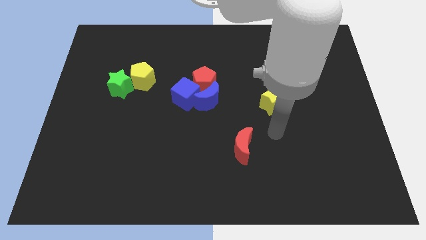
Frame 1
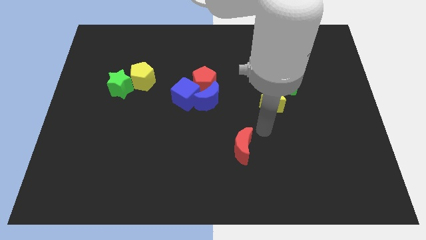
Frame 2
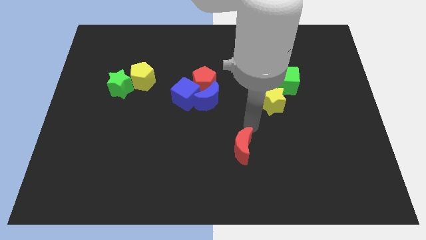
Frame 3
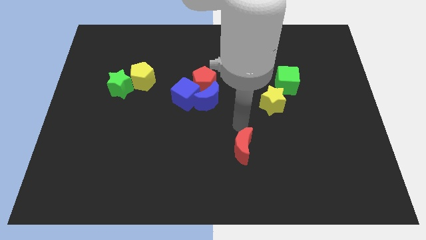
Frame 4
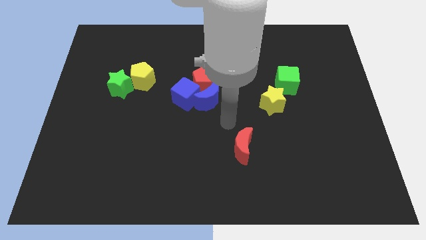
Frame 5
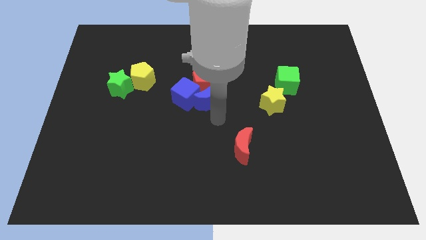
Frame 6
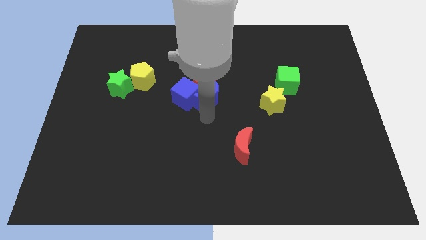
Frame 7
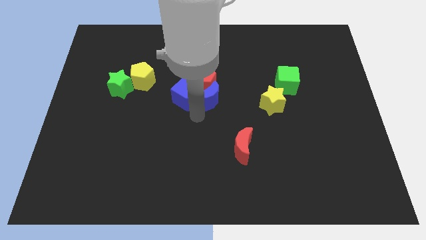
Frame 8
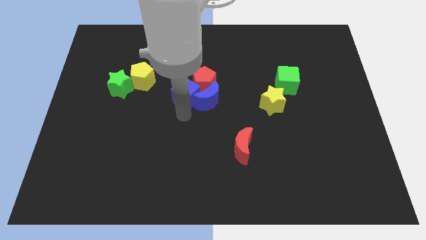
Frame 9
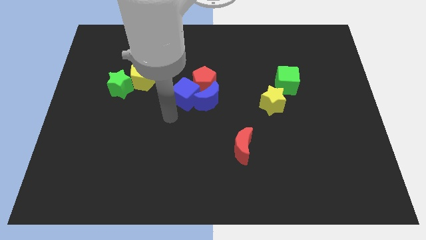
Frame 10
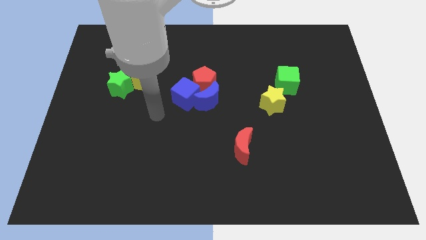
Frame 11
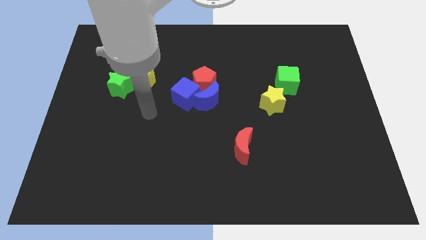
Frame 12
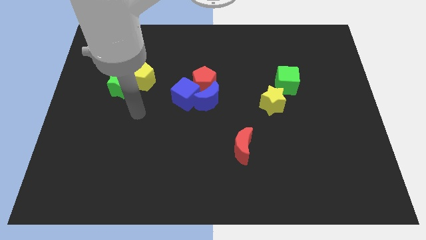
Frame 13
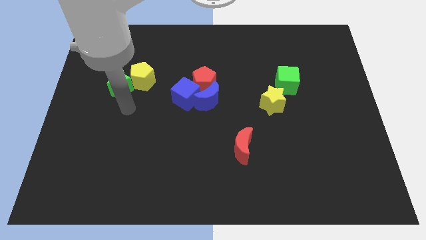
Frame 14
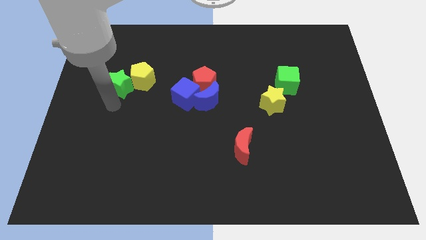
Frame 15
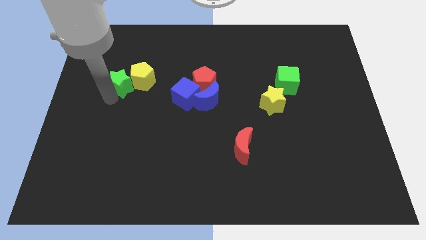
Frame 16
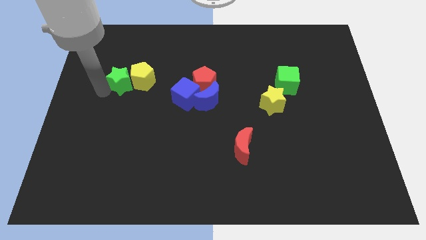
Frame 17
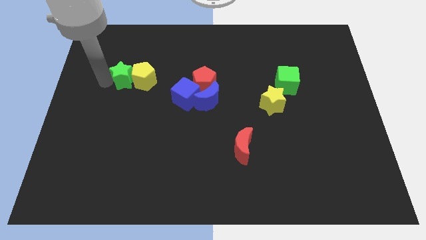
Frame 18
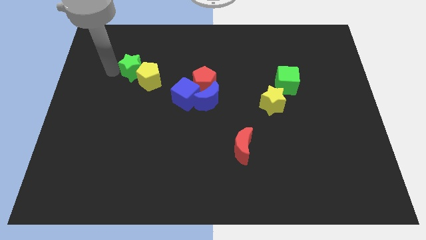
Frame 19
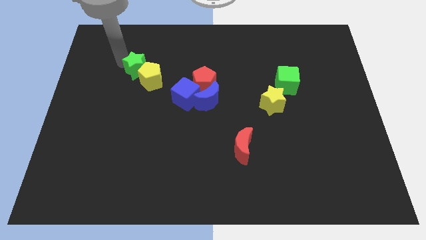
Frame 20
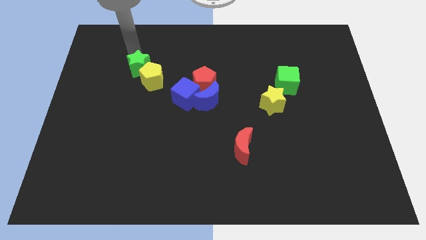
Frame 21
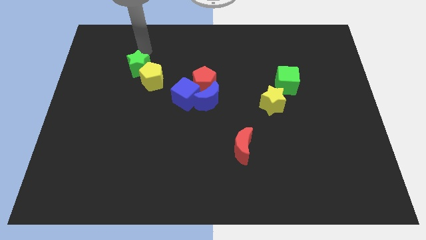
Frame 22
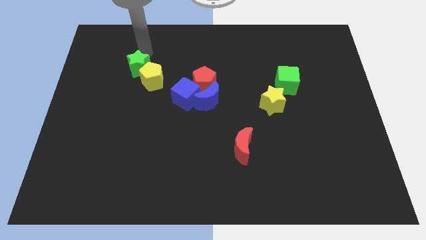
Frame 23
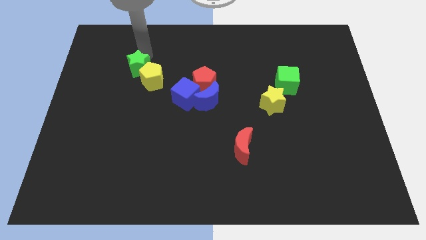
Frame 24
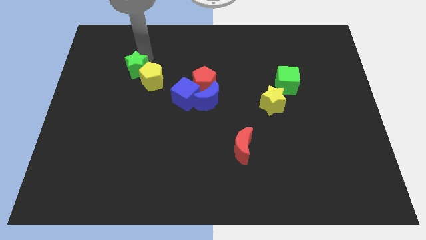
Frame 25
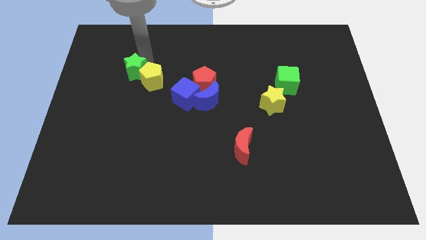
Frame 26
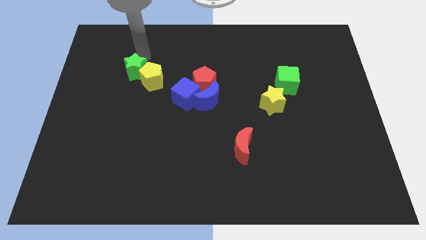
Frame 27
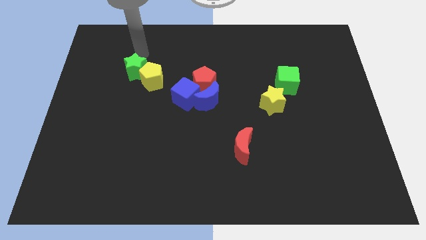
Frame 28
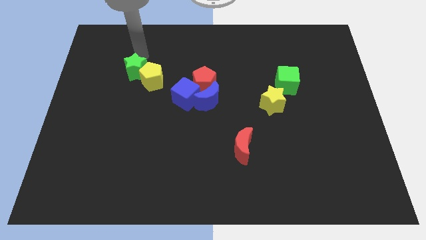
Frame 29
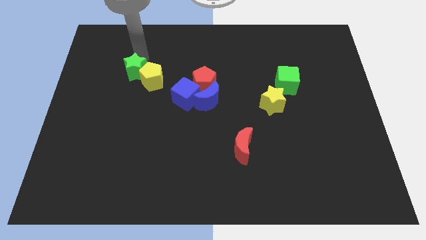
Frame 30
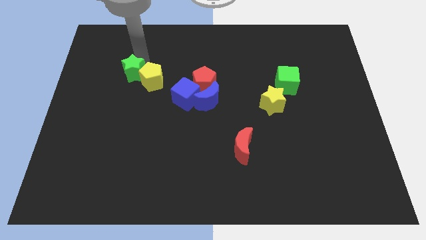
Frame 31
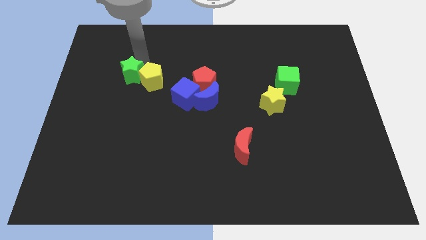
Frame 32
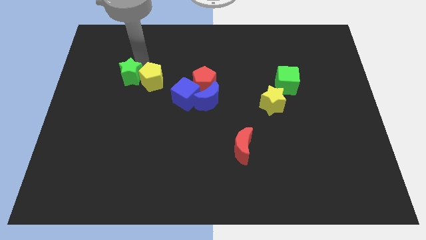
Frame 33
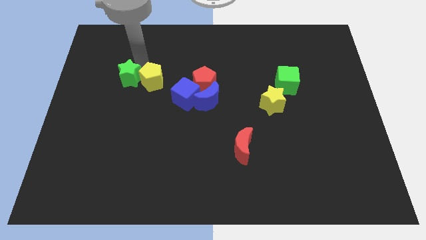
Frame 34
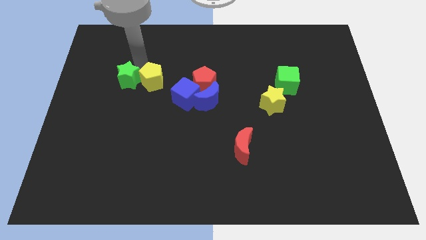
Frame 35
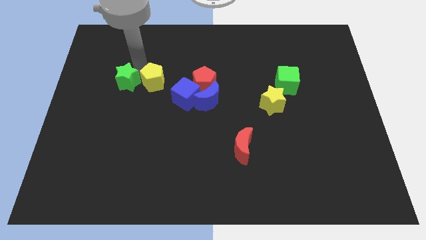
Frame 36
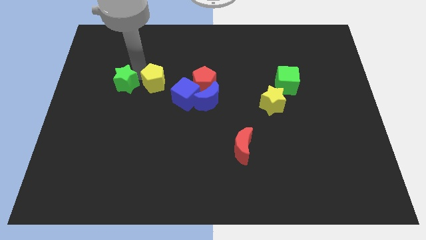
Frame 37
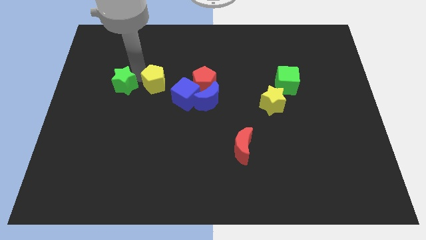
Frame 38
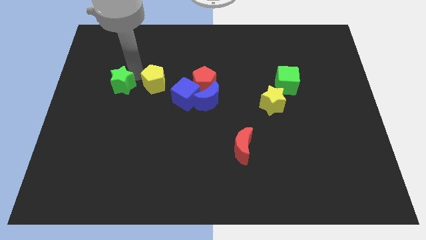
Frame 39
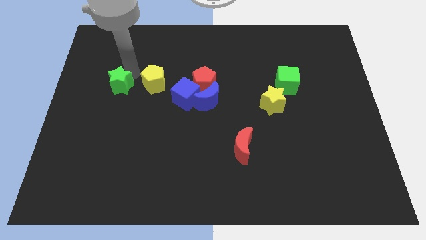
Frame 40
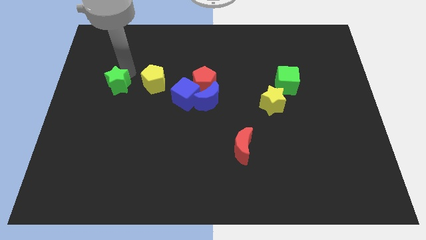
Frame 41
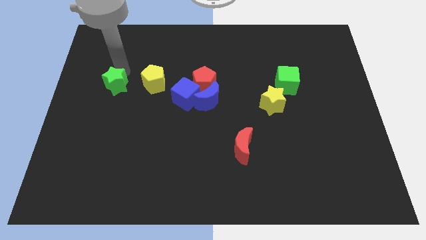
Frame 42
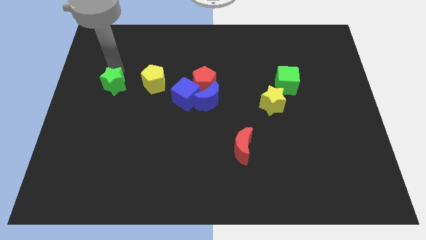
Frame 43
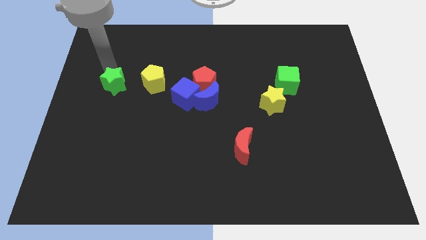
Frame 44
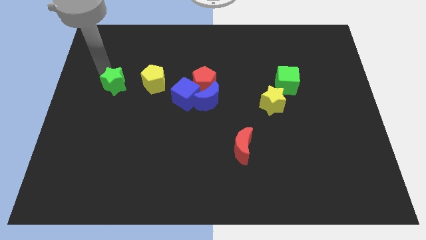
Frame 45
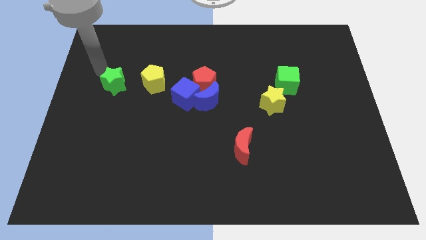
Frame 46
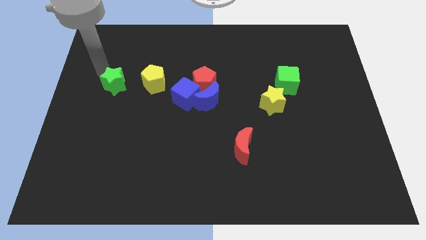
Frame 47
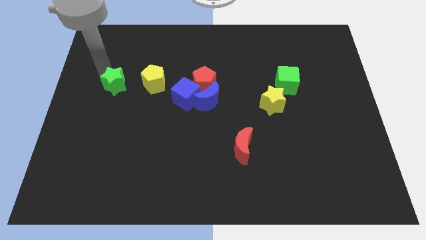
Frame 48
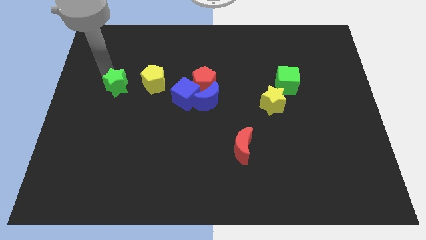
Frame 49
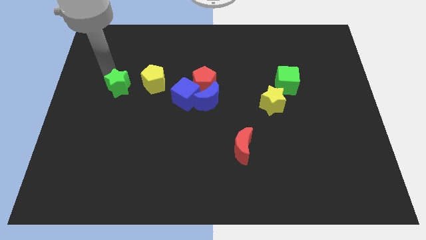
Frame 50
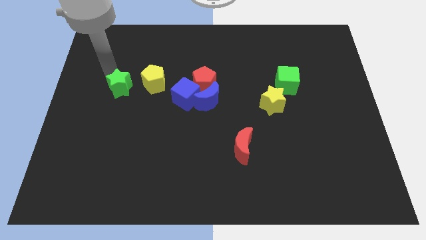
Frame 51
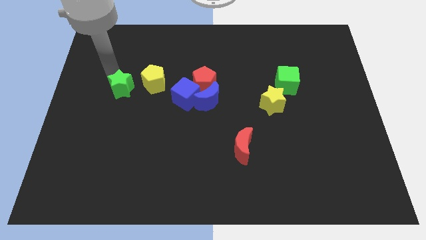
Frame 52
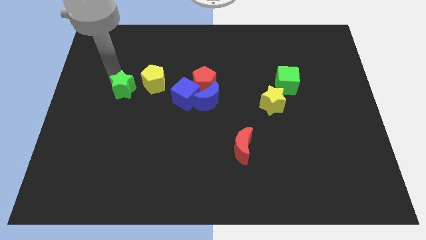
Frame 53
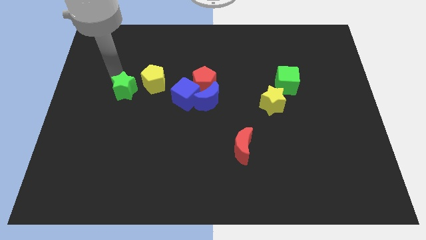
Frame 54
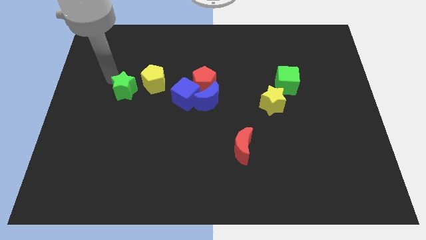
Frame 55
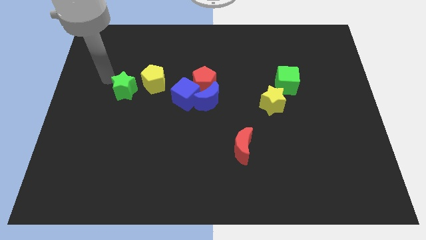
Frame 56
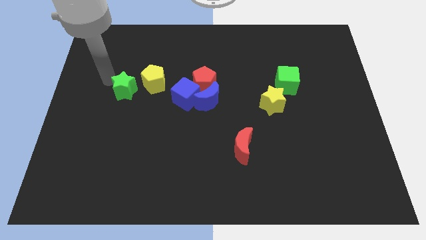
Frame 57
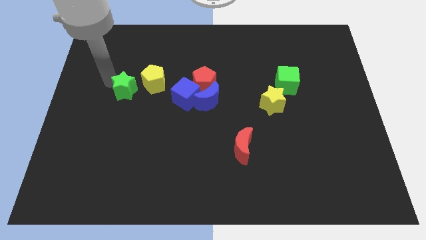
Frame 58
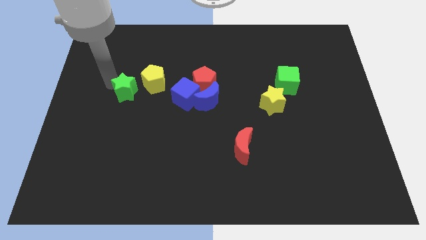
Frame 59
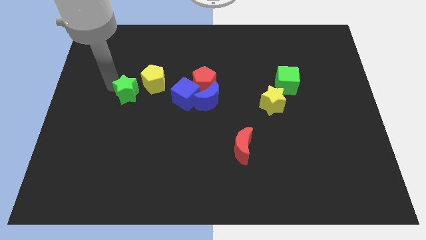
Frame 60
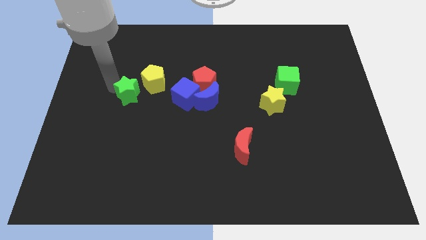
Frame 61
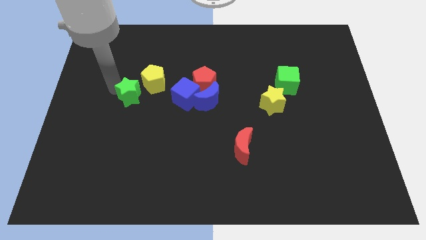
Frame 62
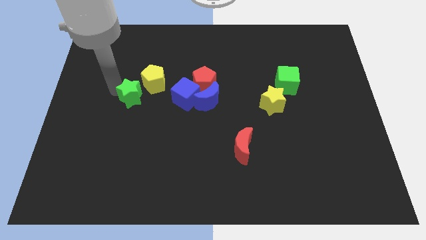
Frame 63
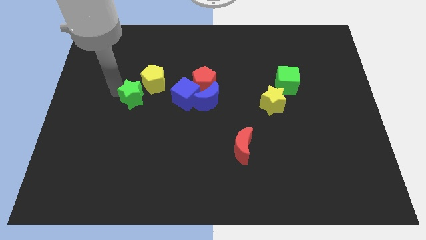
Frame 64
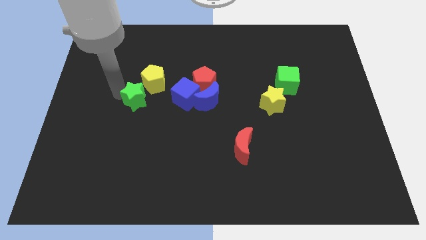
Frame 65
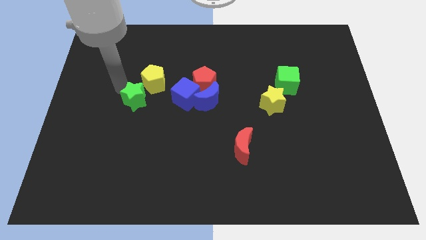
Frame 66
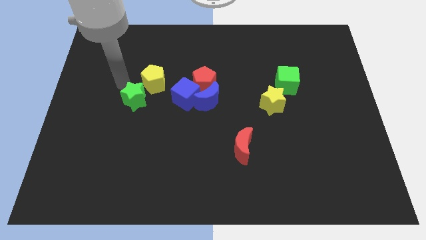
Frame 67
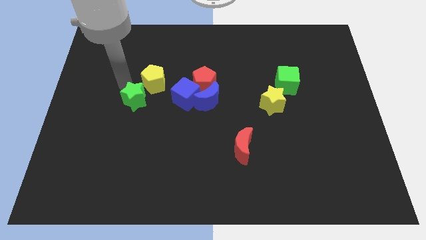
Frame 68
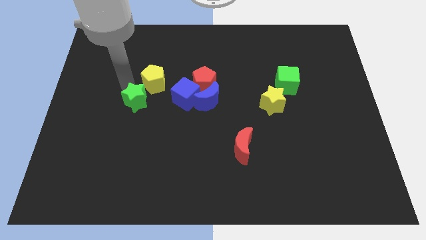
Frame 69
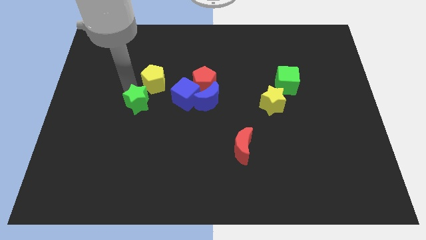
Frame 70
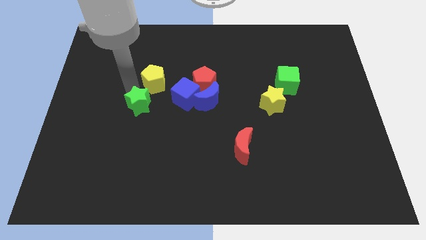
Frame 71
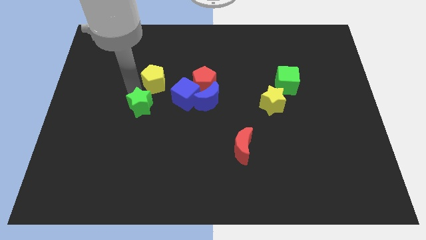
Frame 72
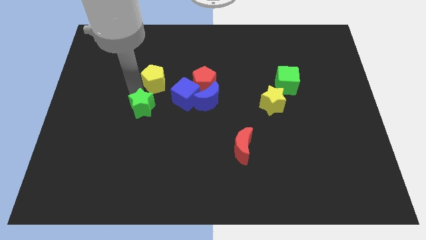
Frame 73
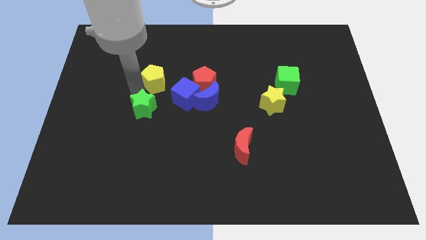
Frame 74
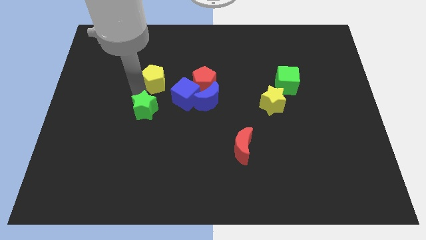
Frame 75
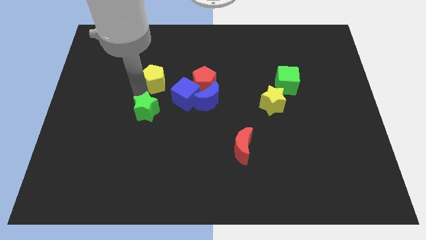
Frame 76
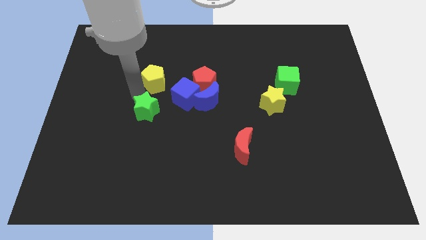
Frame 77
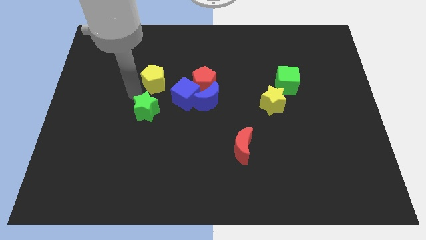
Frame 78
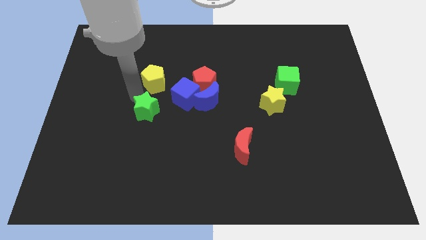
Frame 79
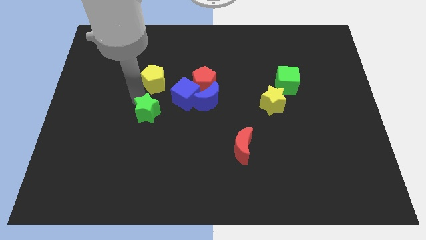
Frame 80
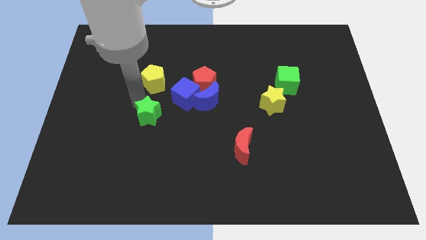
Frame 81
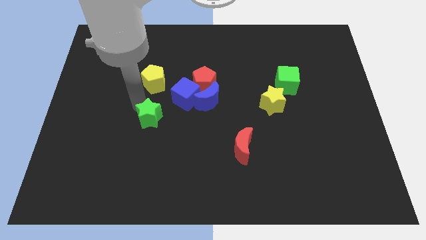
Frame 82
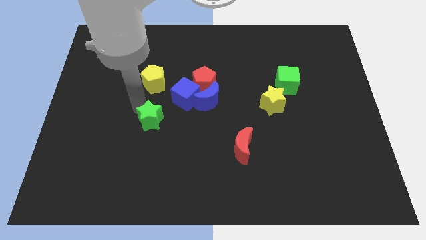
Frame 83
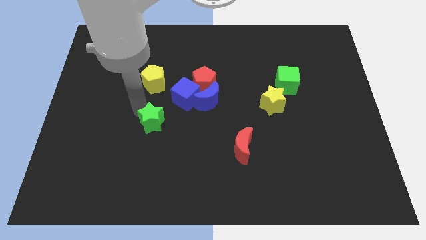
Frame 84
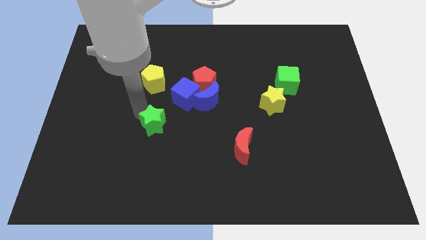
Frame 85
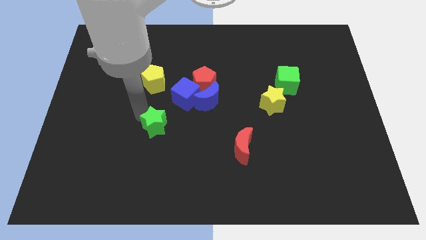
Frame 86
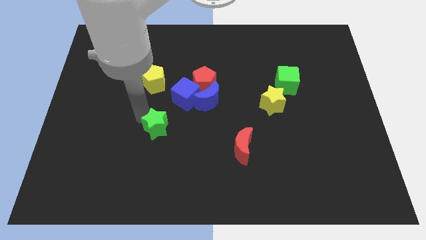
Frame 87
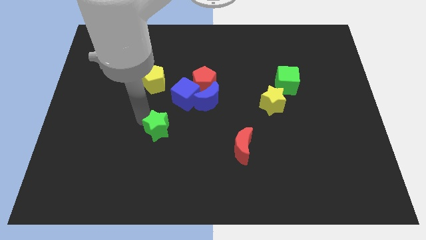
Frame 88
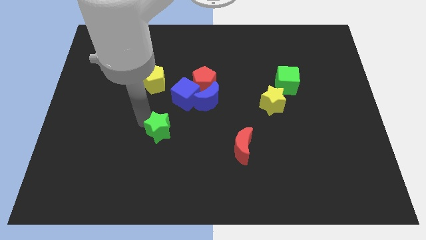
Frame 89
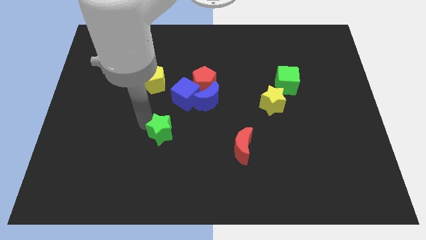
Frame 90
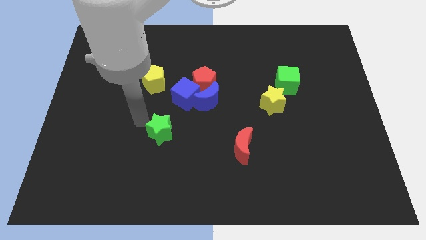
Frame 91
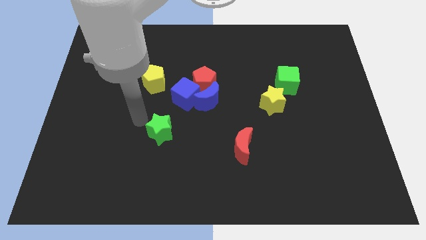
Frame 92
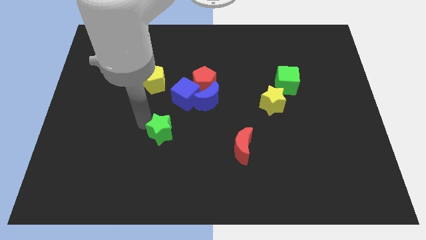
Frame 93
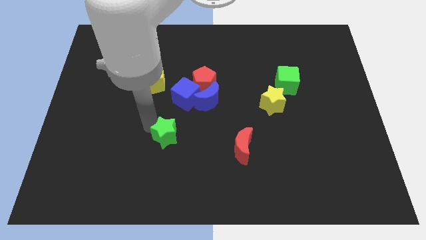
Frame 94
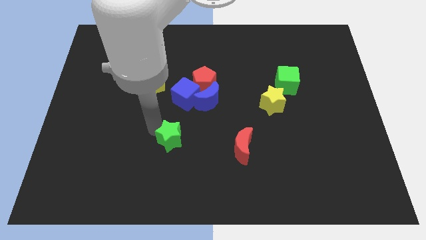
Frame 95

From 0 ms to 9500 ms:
slide the green star down and right
